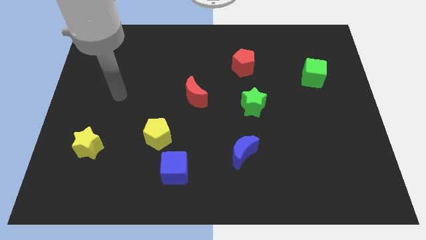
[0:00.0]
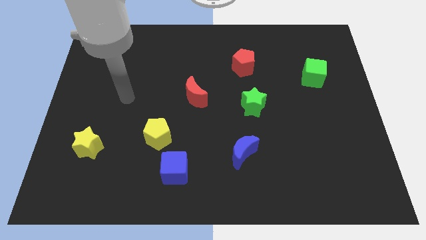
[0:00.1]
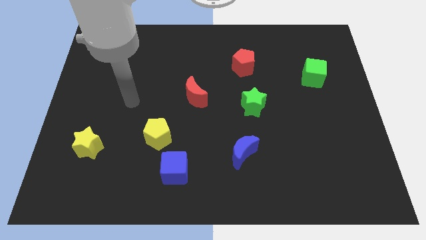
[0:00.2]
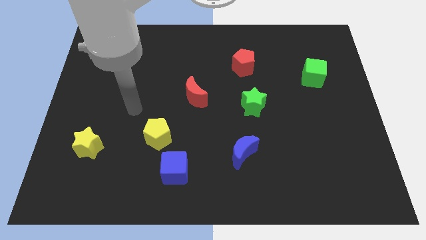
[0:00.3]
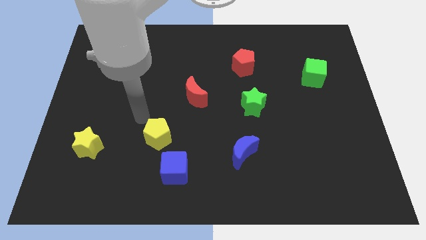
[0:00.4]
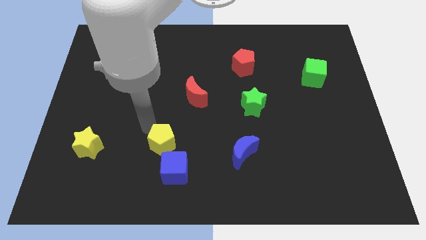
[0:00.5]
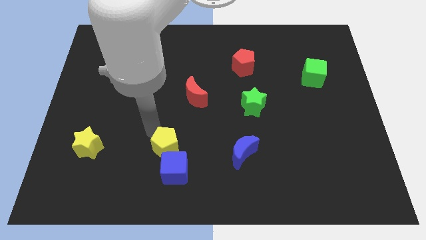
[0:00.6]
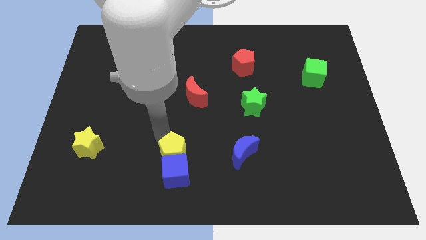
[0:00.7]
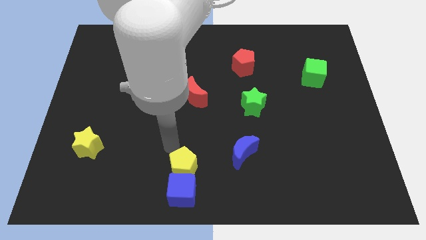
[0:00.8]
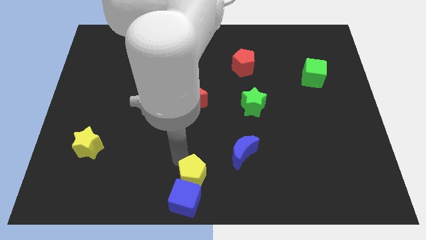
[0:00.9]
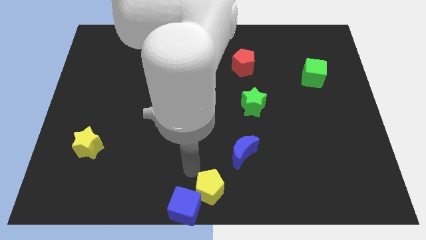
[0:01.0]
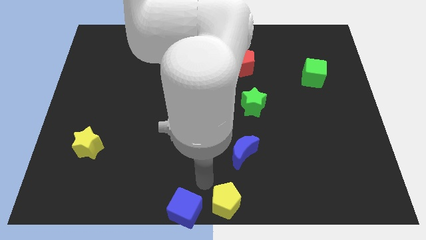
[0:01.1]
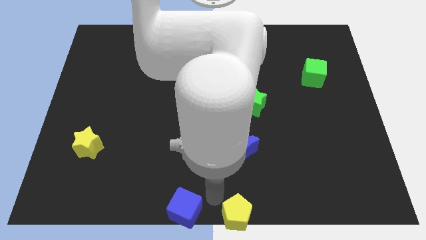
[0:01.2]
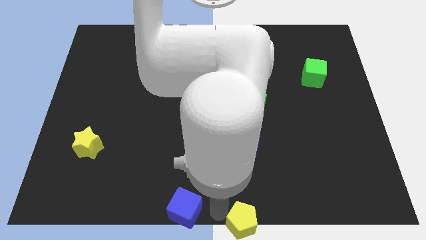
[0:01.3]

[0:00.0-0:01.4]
move the blue cube away from the yellow pentagon

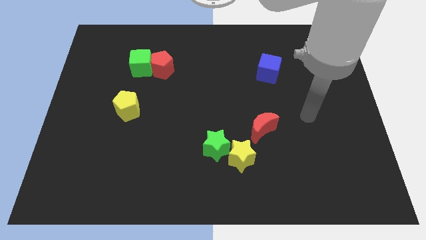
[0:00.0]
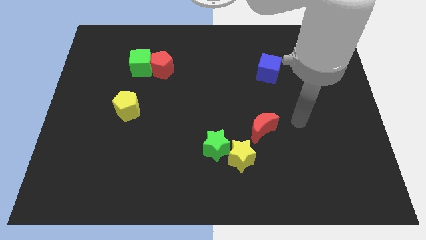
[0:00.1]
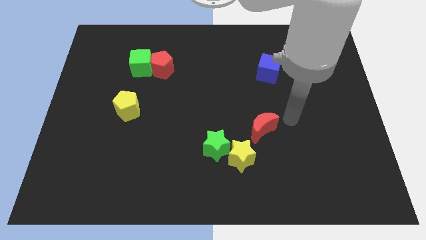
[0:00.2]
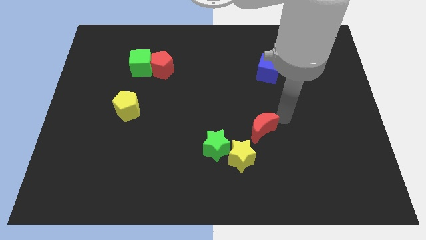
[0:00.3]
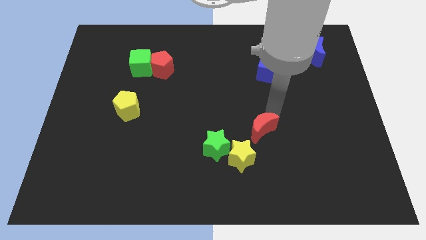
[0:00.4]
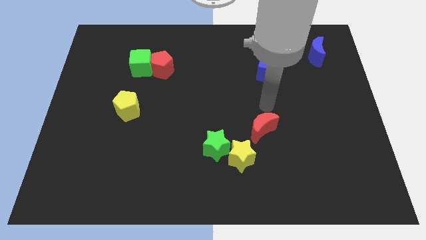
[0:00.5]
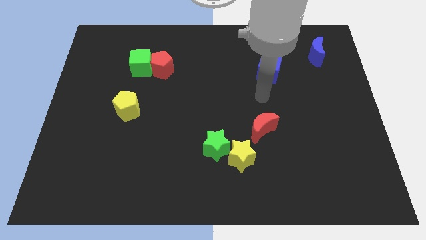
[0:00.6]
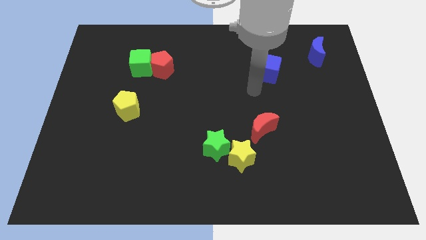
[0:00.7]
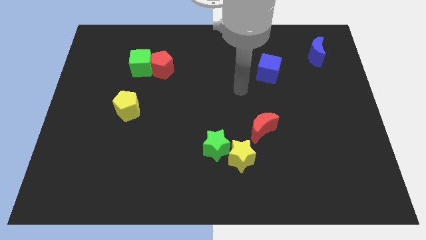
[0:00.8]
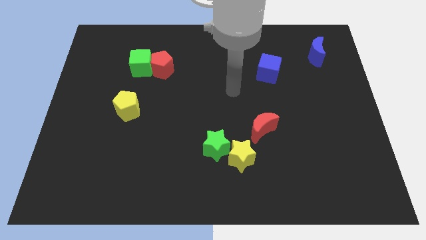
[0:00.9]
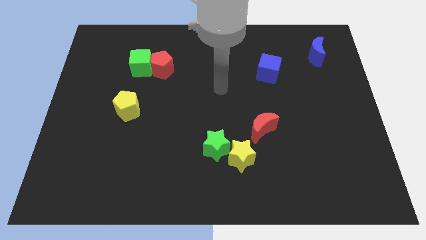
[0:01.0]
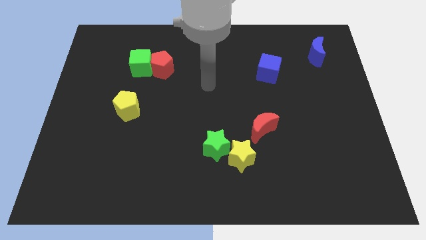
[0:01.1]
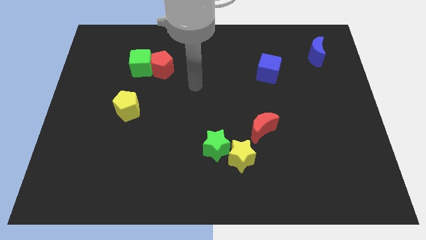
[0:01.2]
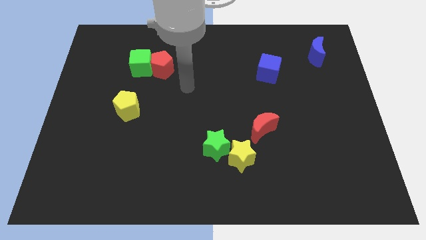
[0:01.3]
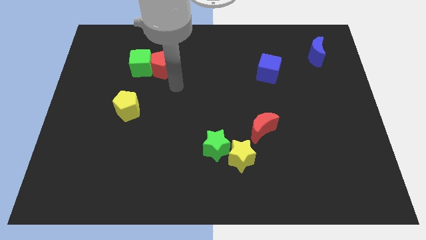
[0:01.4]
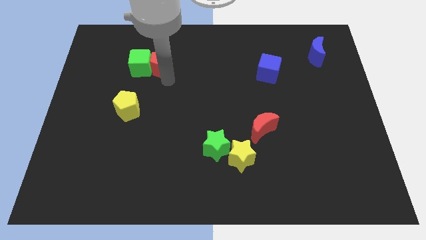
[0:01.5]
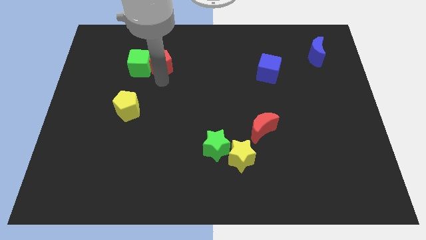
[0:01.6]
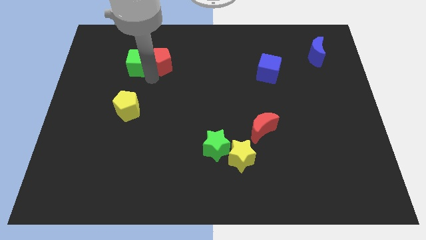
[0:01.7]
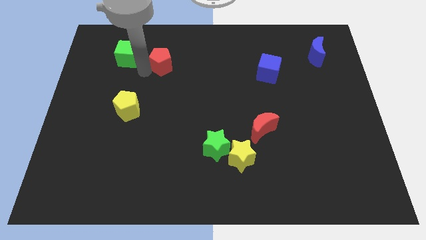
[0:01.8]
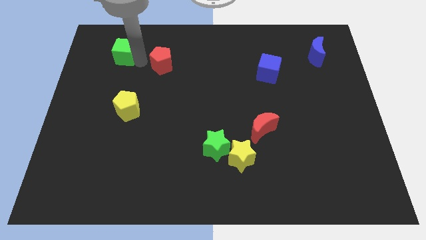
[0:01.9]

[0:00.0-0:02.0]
separate the red pentagon from the green cube

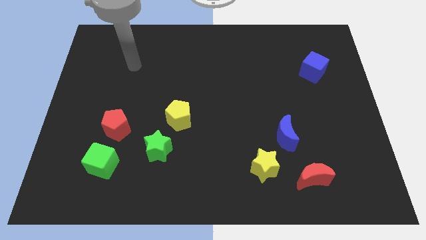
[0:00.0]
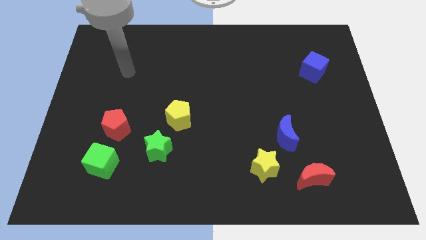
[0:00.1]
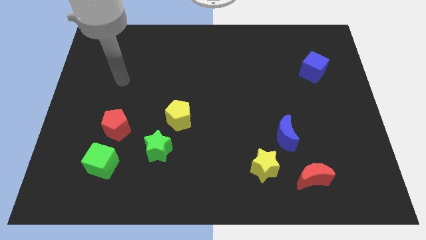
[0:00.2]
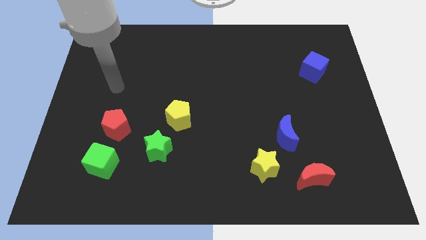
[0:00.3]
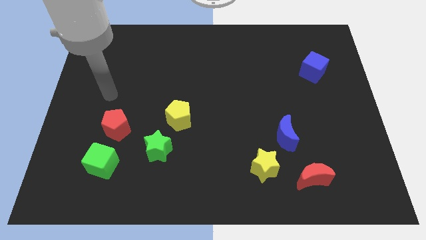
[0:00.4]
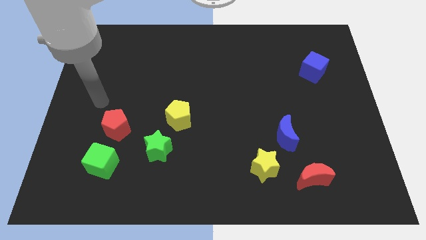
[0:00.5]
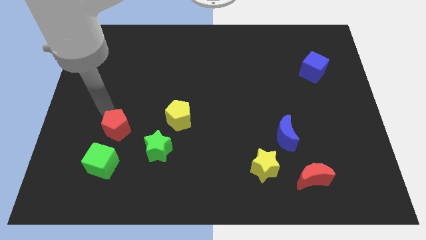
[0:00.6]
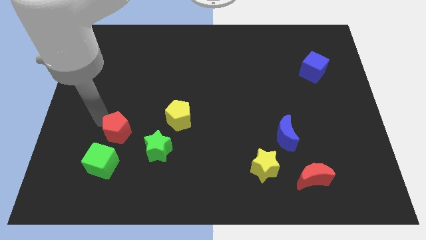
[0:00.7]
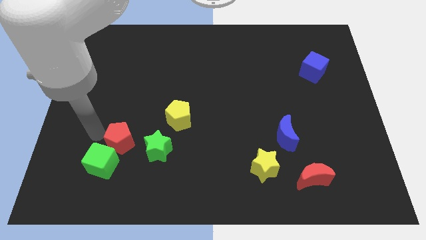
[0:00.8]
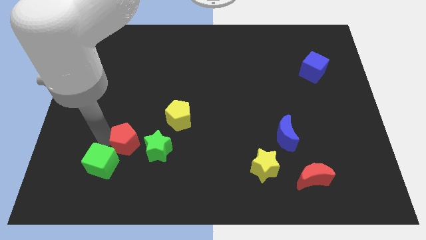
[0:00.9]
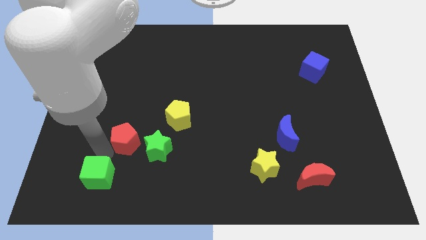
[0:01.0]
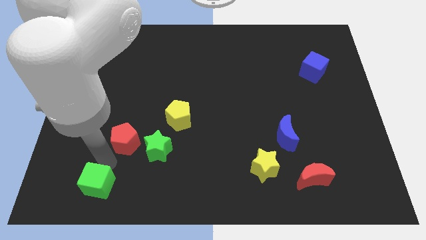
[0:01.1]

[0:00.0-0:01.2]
pull the red pentagon apart from the green cube

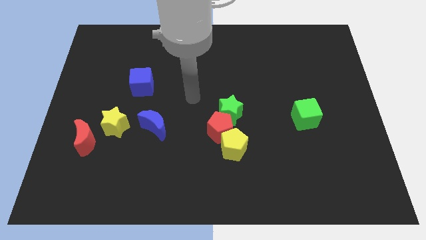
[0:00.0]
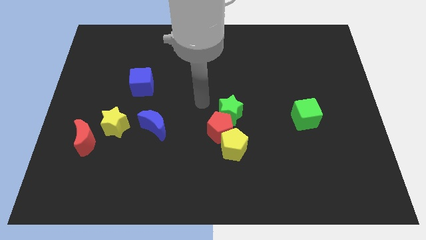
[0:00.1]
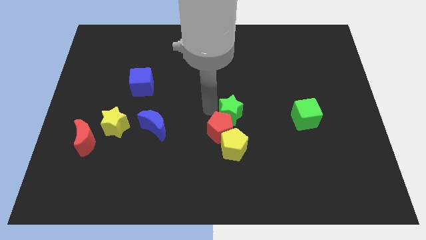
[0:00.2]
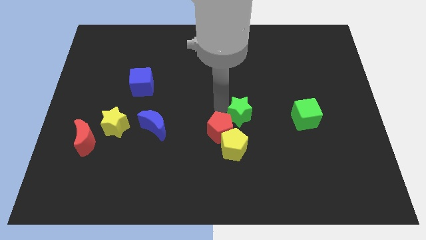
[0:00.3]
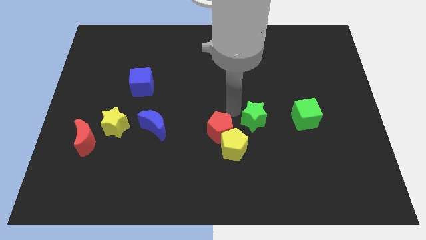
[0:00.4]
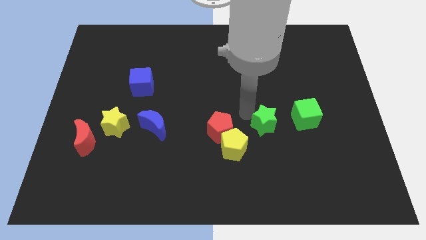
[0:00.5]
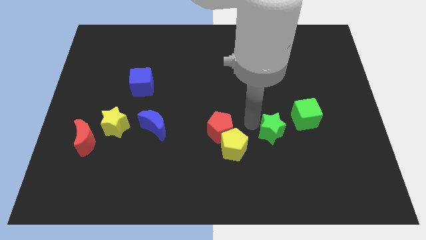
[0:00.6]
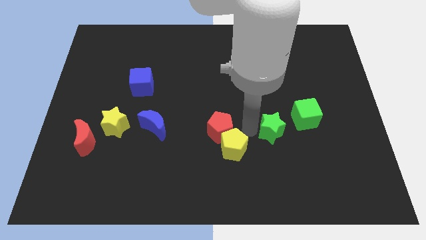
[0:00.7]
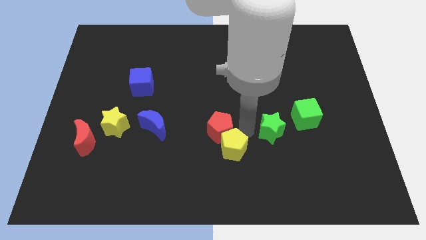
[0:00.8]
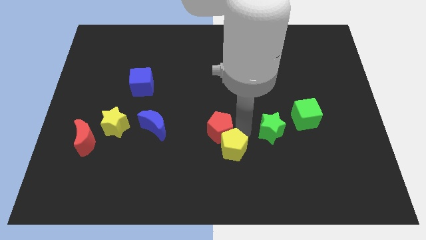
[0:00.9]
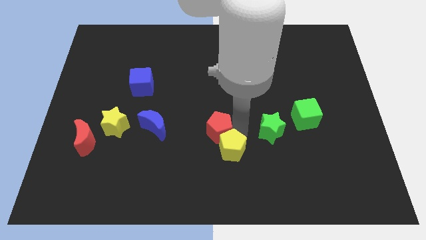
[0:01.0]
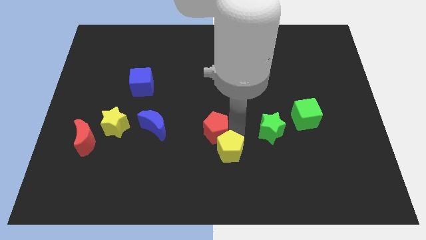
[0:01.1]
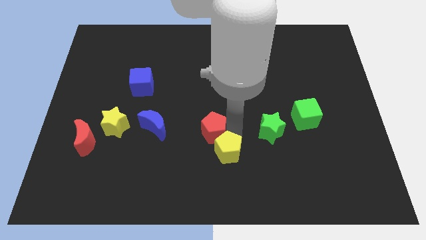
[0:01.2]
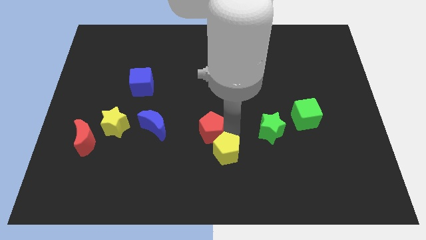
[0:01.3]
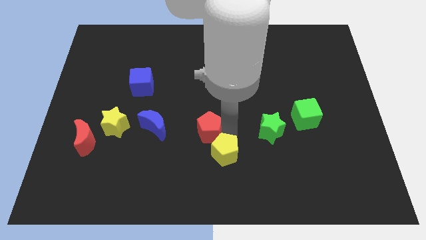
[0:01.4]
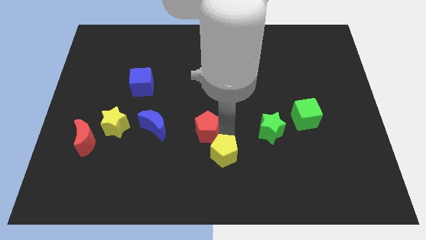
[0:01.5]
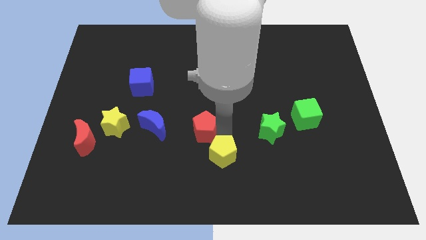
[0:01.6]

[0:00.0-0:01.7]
move the red pentagon away from the yellow pentagon and green star

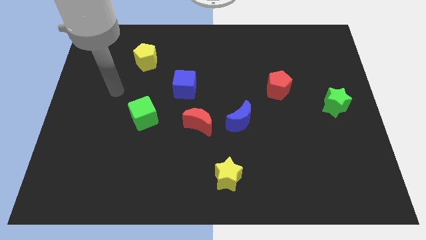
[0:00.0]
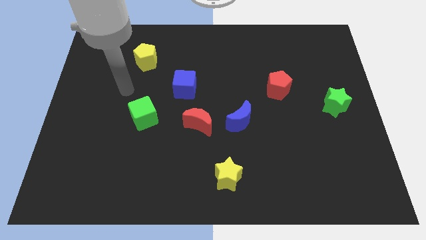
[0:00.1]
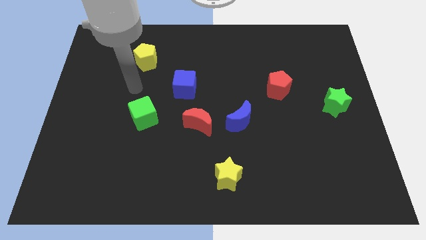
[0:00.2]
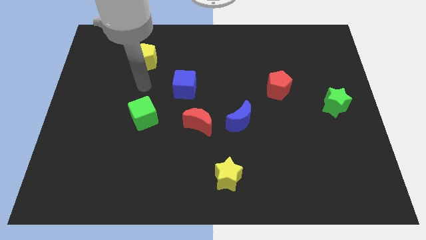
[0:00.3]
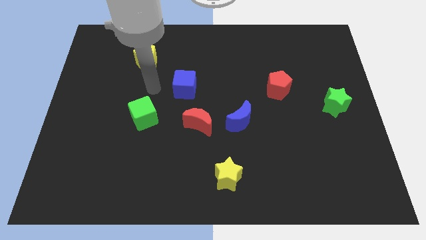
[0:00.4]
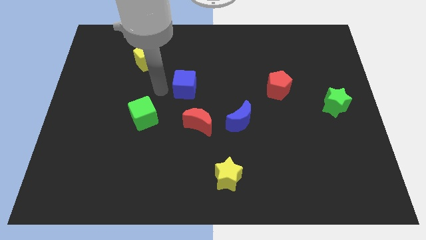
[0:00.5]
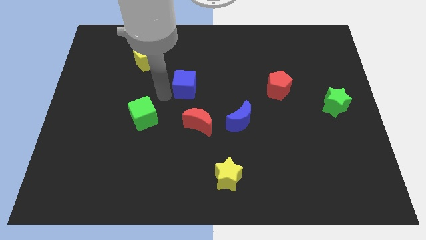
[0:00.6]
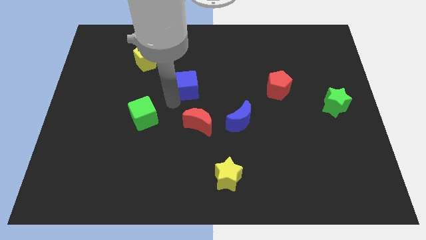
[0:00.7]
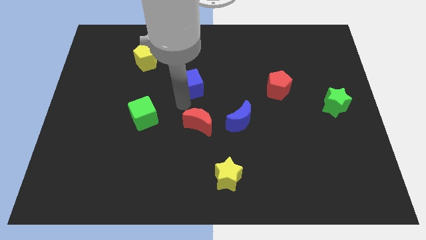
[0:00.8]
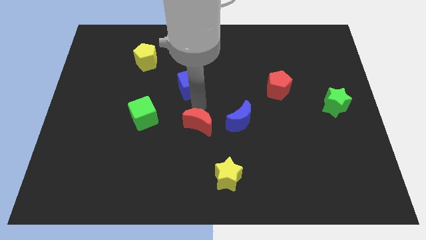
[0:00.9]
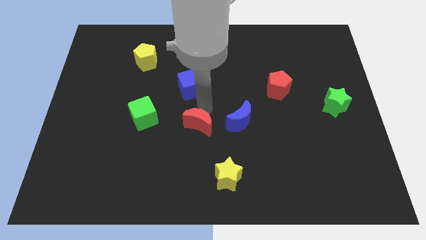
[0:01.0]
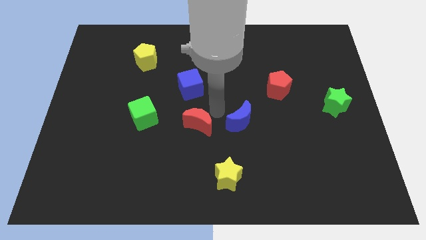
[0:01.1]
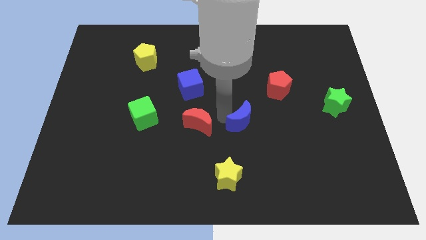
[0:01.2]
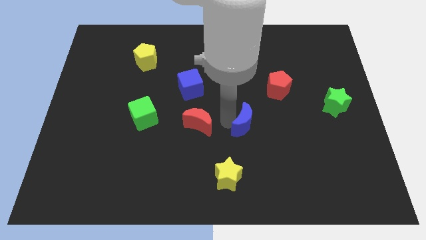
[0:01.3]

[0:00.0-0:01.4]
pull the red moon apart from the blue moon

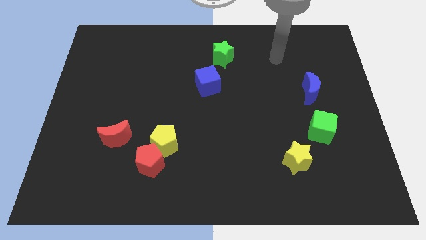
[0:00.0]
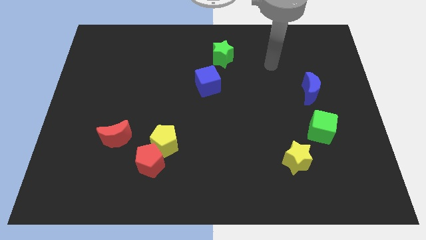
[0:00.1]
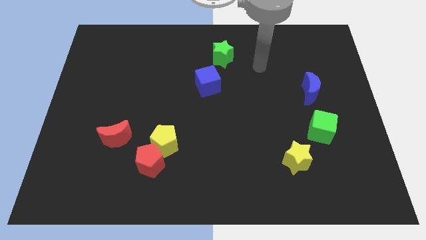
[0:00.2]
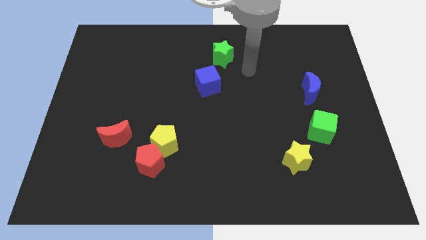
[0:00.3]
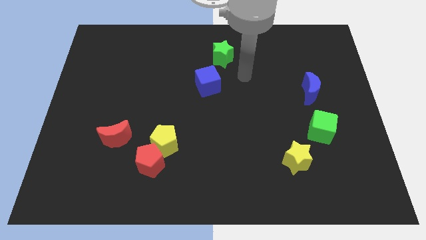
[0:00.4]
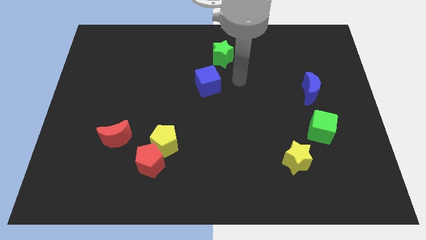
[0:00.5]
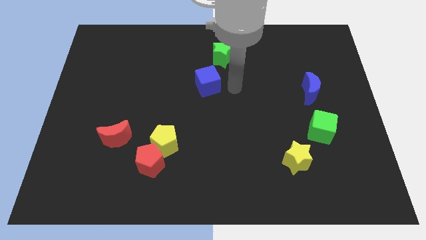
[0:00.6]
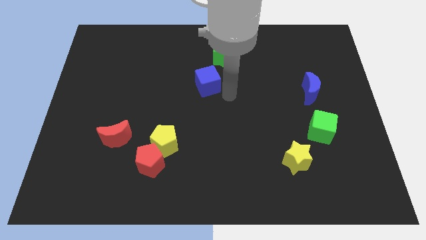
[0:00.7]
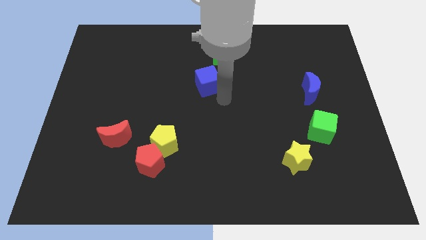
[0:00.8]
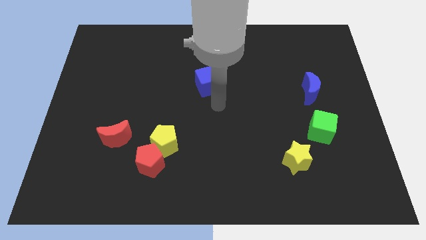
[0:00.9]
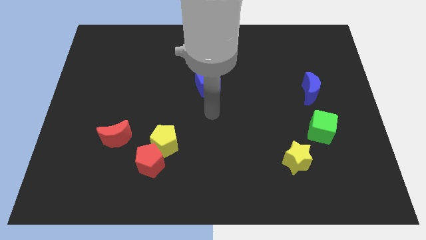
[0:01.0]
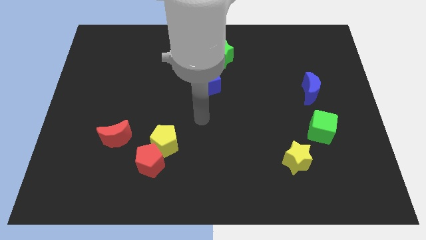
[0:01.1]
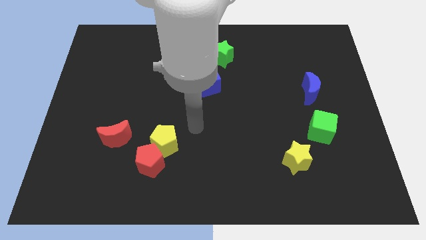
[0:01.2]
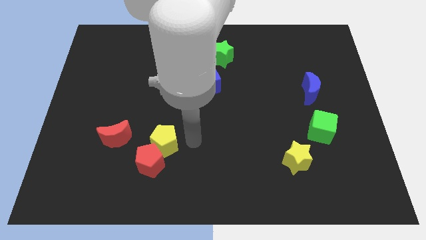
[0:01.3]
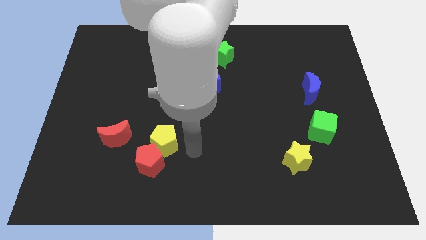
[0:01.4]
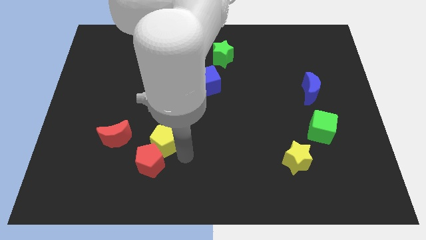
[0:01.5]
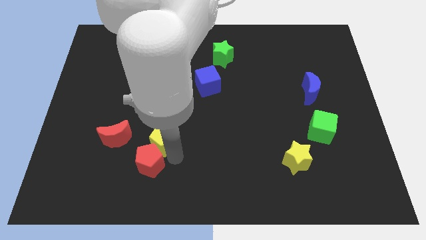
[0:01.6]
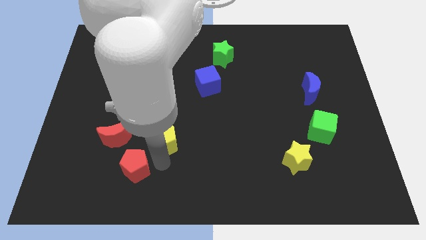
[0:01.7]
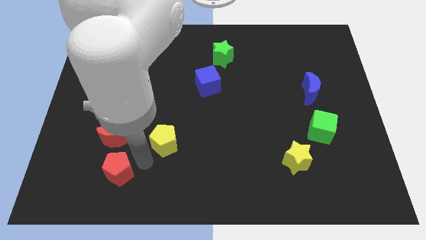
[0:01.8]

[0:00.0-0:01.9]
separate the yellow pentagon from the red pentagon
